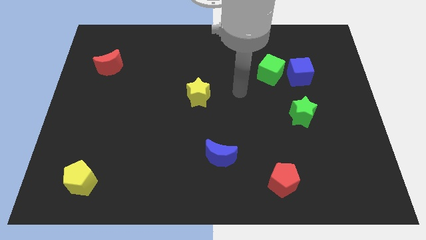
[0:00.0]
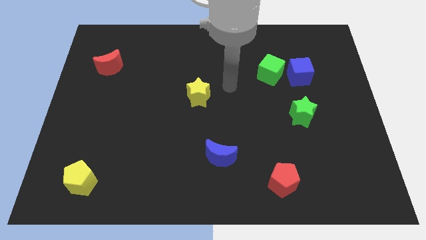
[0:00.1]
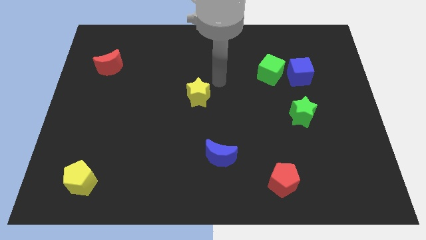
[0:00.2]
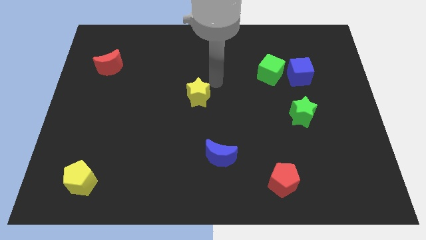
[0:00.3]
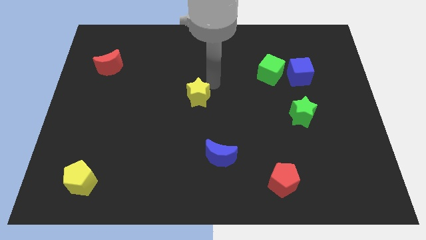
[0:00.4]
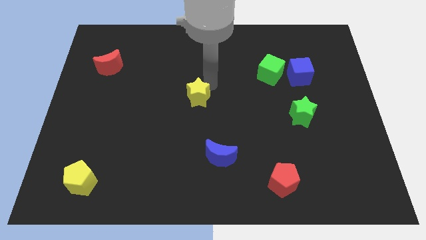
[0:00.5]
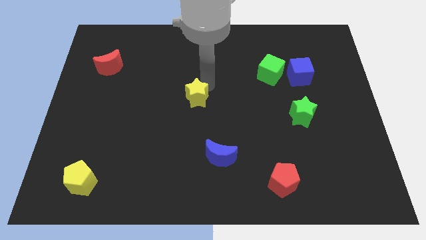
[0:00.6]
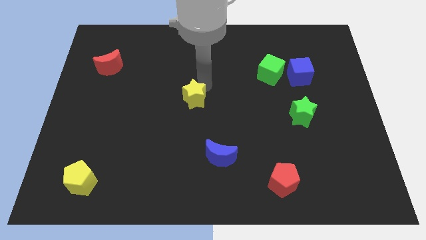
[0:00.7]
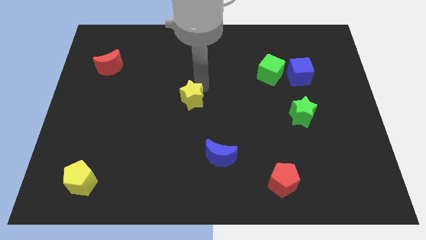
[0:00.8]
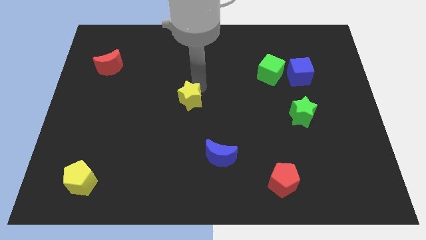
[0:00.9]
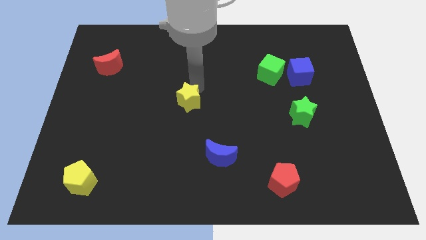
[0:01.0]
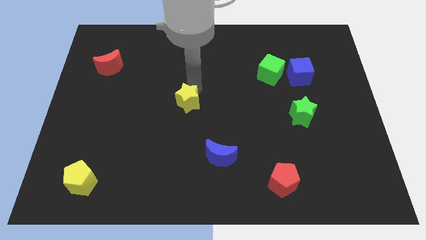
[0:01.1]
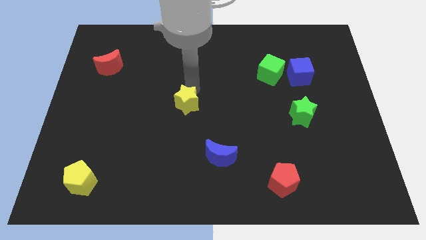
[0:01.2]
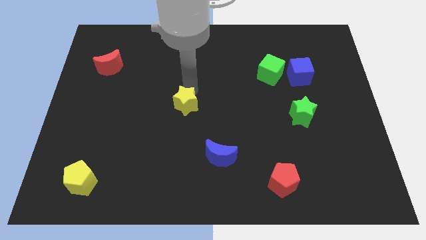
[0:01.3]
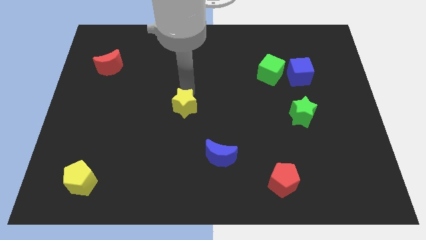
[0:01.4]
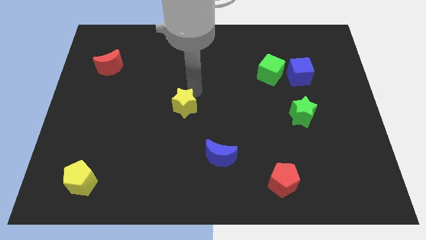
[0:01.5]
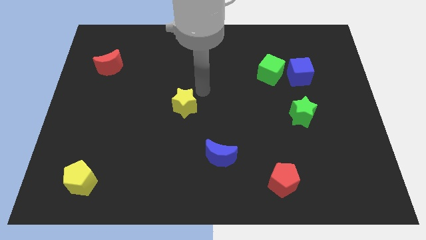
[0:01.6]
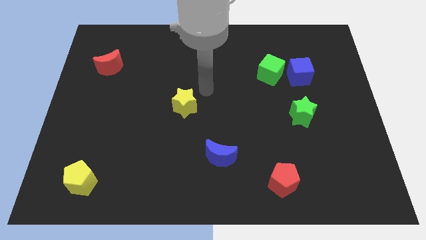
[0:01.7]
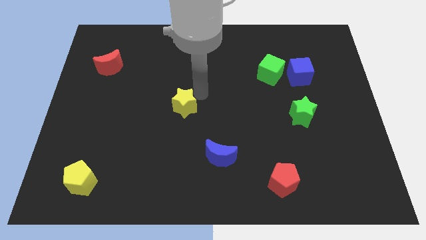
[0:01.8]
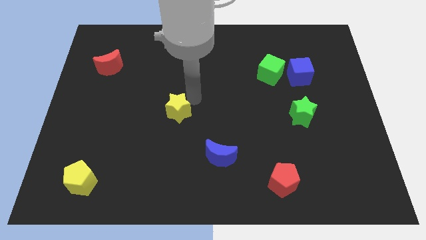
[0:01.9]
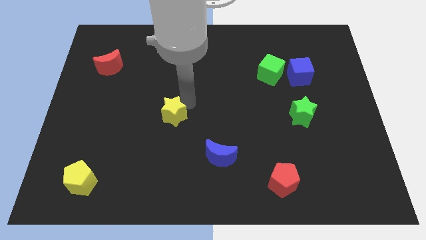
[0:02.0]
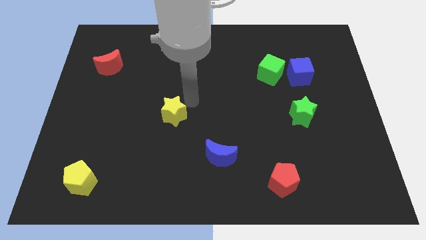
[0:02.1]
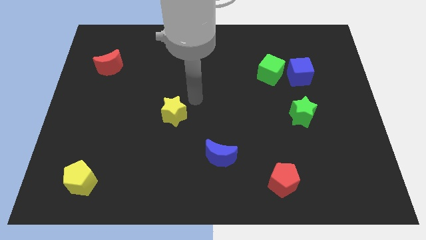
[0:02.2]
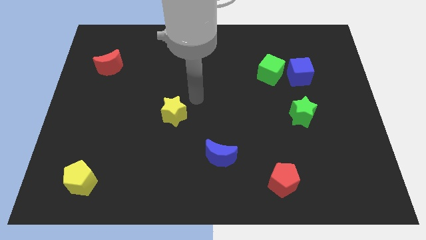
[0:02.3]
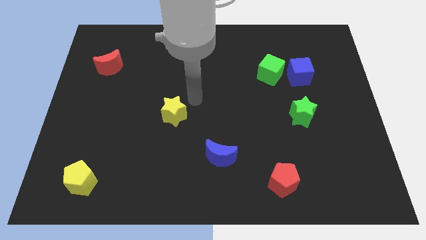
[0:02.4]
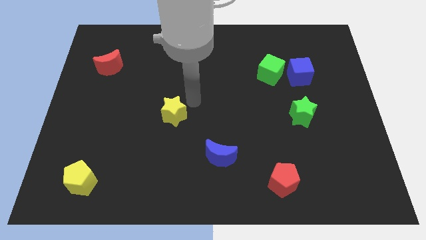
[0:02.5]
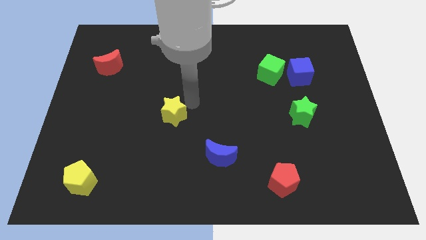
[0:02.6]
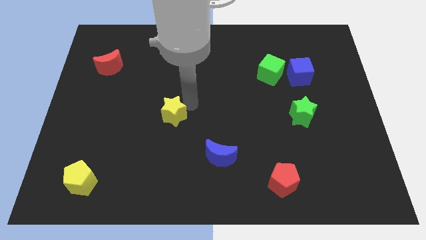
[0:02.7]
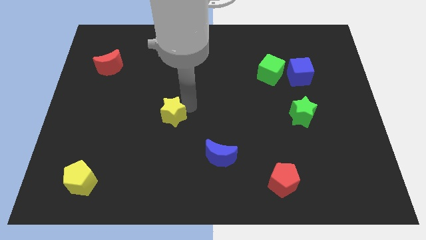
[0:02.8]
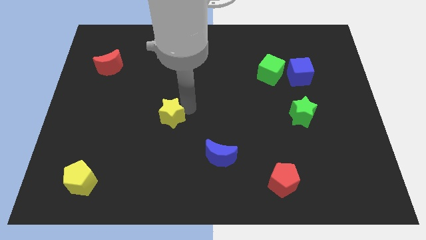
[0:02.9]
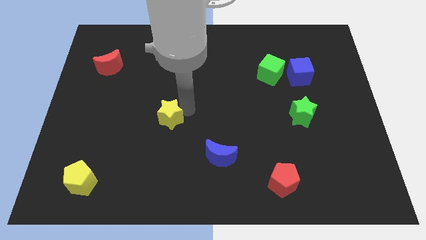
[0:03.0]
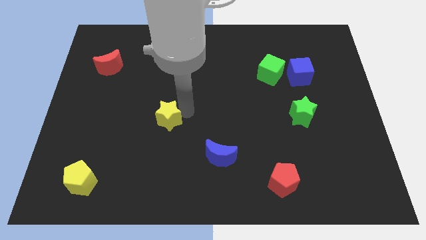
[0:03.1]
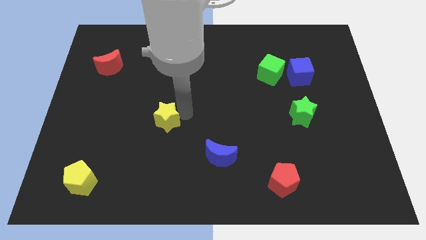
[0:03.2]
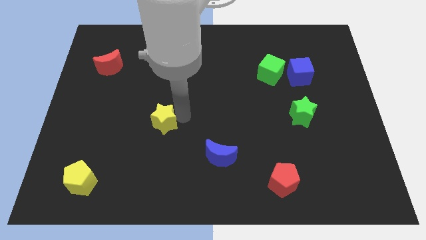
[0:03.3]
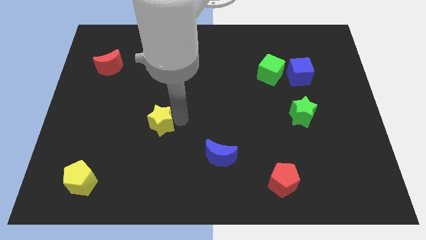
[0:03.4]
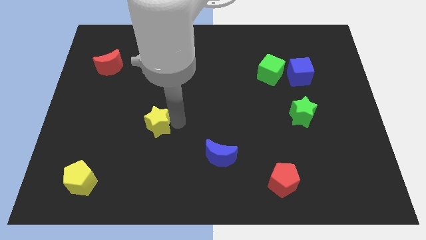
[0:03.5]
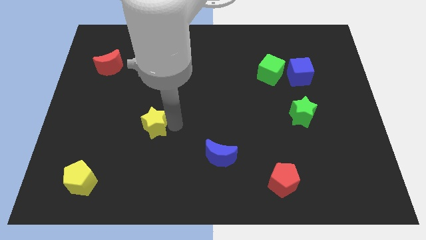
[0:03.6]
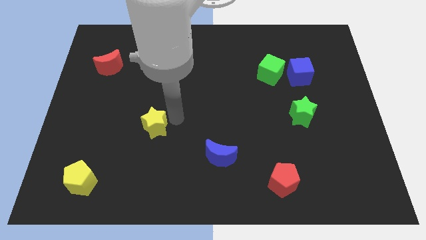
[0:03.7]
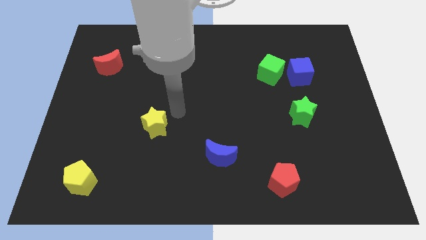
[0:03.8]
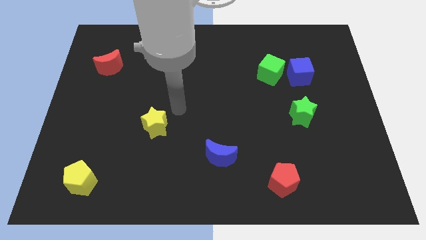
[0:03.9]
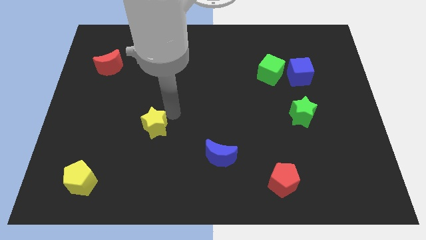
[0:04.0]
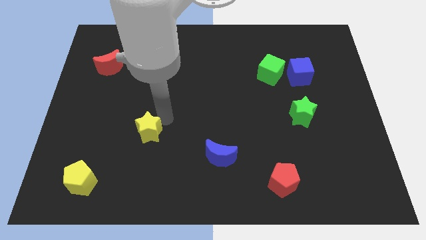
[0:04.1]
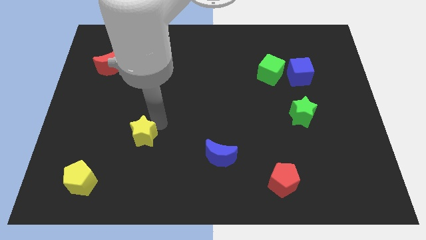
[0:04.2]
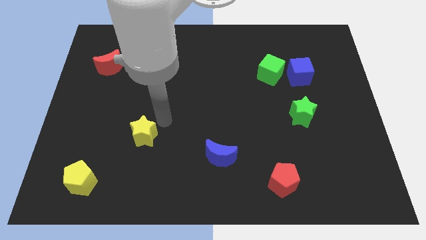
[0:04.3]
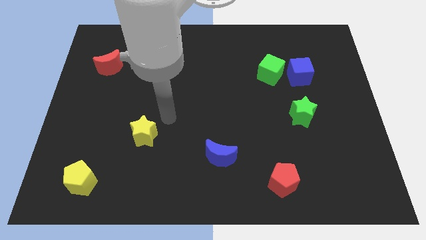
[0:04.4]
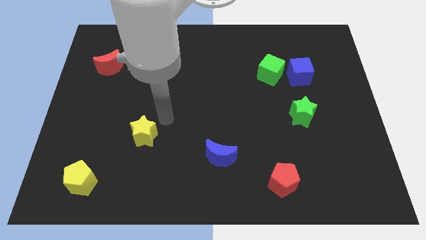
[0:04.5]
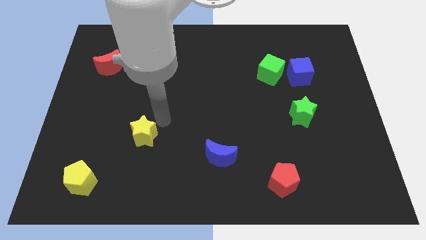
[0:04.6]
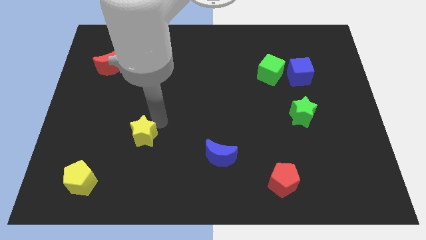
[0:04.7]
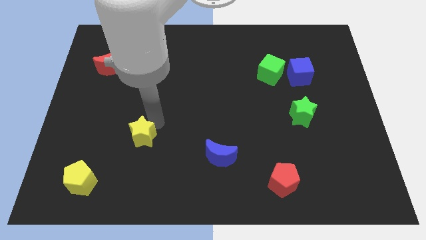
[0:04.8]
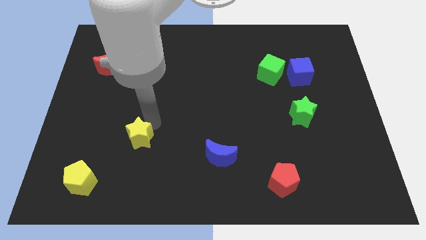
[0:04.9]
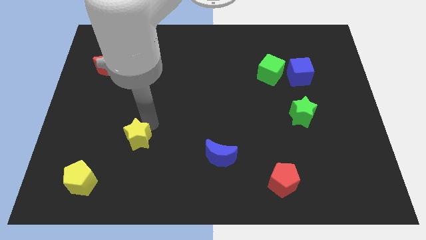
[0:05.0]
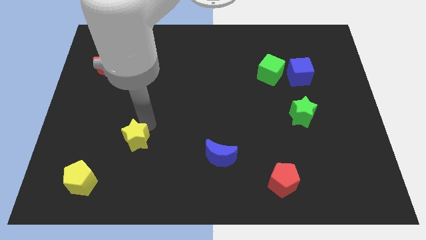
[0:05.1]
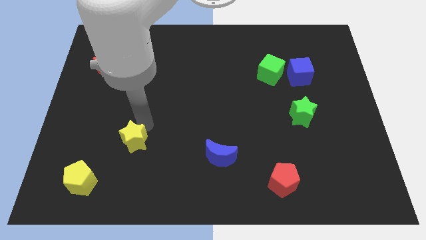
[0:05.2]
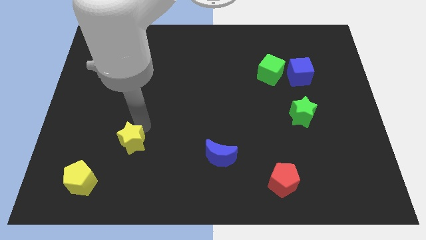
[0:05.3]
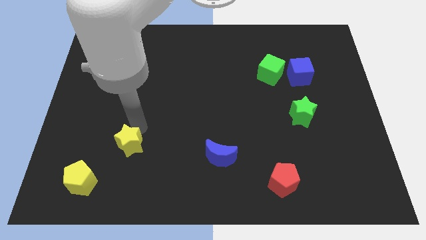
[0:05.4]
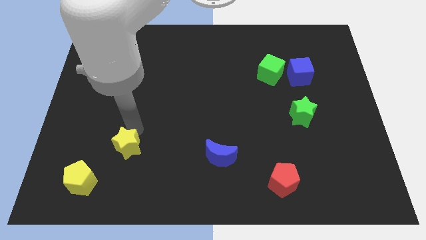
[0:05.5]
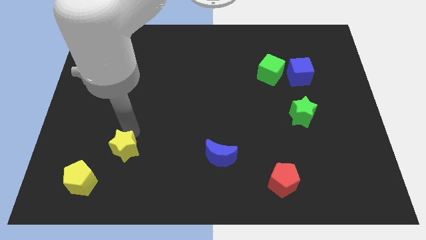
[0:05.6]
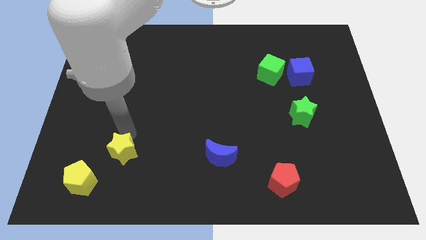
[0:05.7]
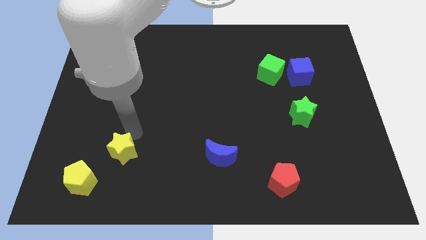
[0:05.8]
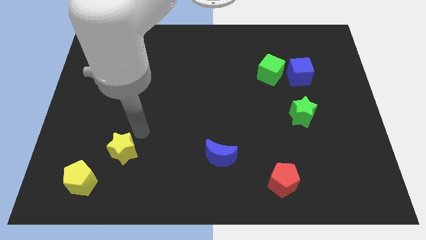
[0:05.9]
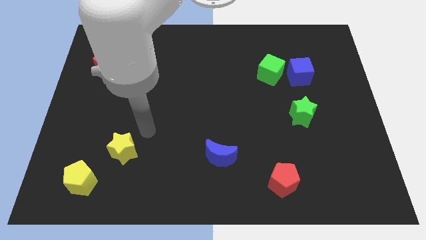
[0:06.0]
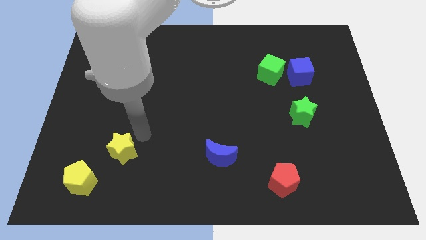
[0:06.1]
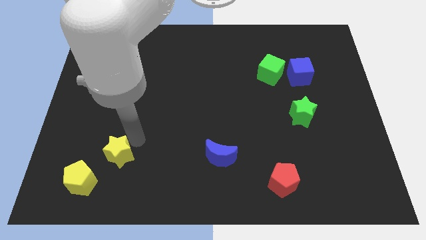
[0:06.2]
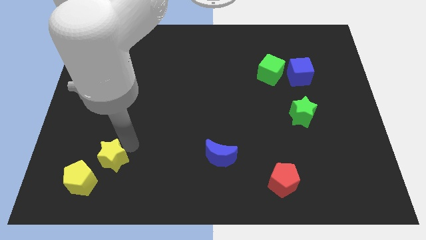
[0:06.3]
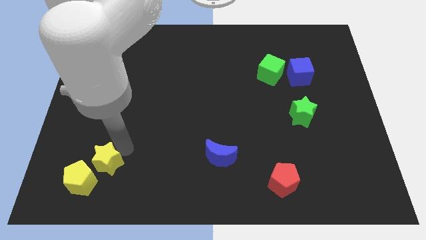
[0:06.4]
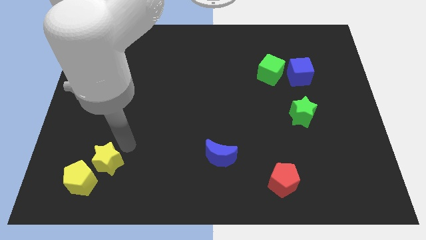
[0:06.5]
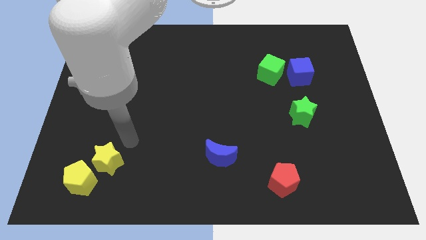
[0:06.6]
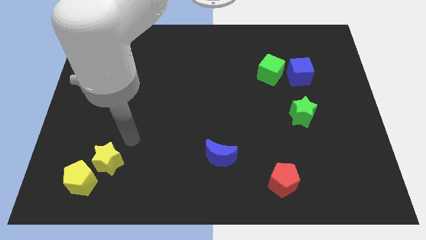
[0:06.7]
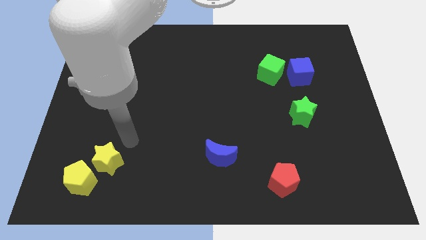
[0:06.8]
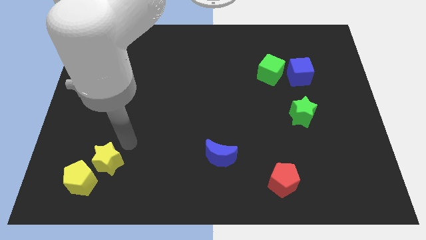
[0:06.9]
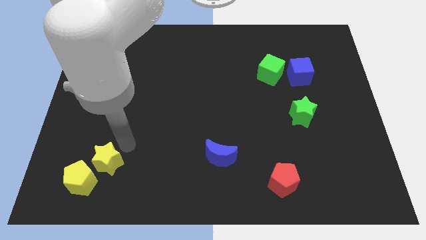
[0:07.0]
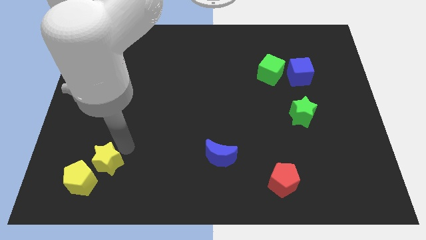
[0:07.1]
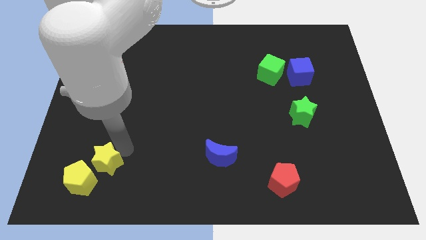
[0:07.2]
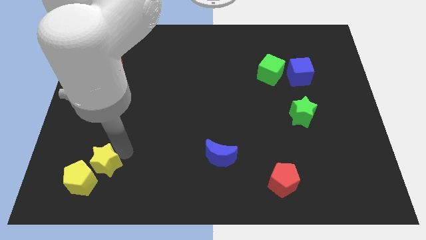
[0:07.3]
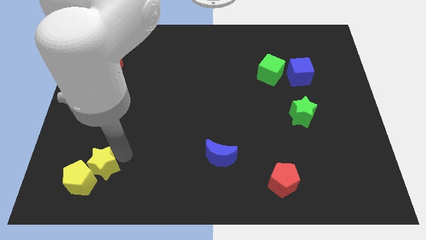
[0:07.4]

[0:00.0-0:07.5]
put the yellow star towards the yellow pentagon
